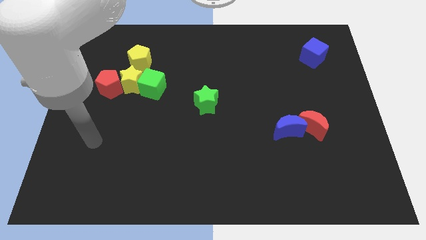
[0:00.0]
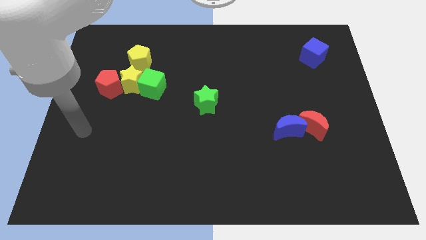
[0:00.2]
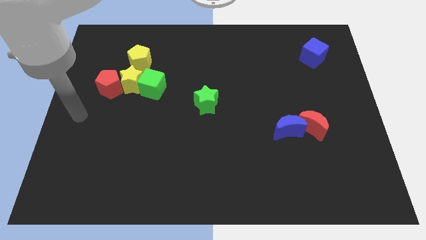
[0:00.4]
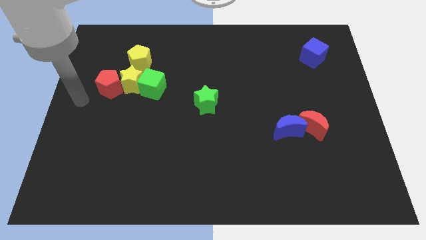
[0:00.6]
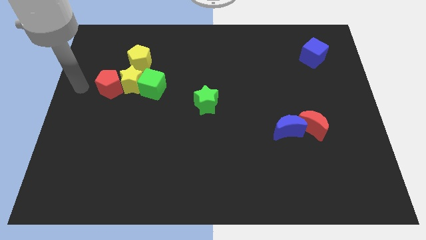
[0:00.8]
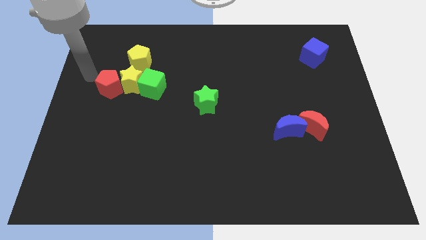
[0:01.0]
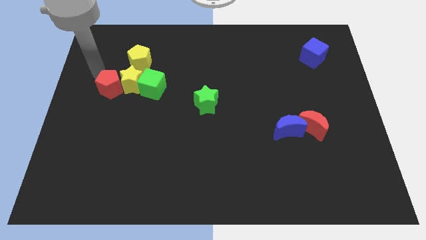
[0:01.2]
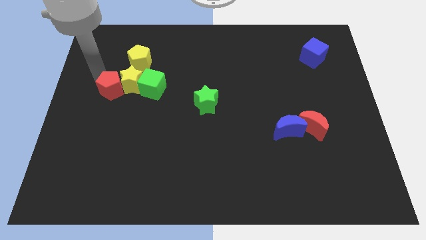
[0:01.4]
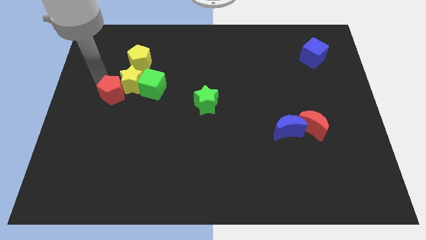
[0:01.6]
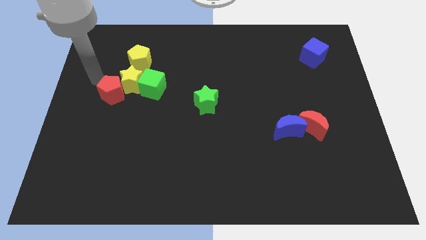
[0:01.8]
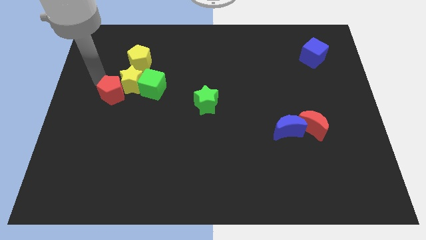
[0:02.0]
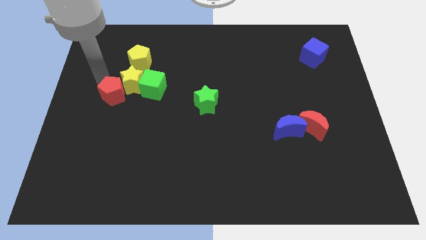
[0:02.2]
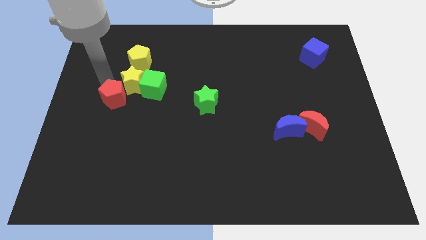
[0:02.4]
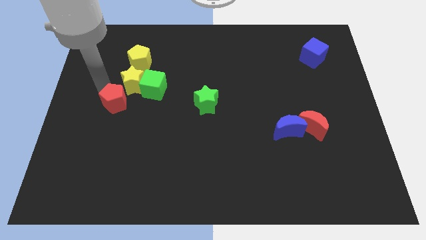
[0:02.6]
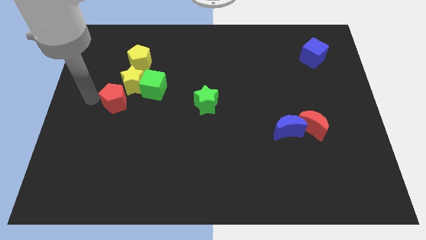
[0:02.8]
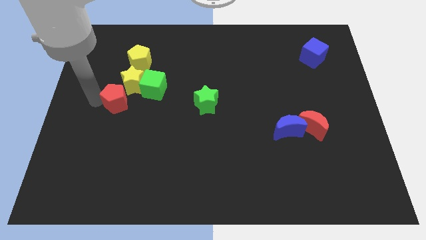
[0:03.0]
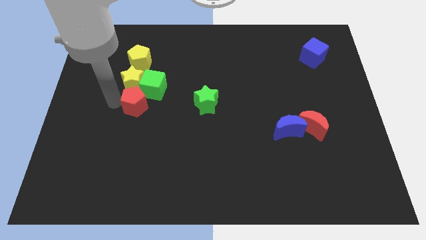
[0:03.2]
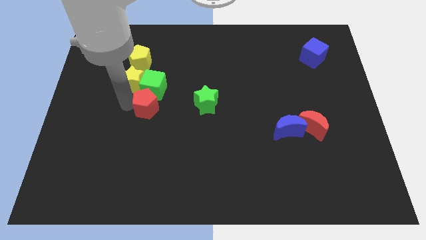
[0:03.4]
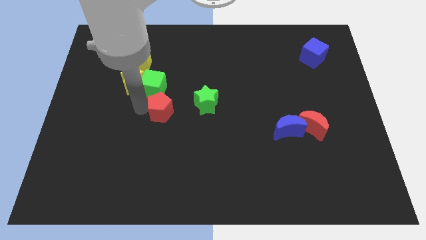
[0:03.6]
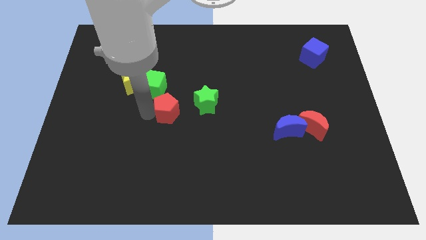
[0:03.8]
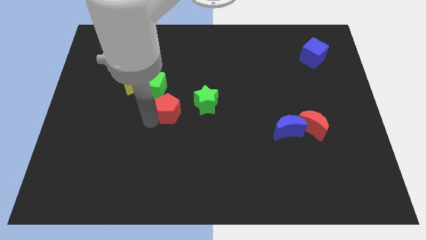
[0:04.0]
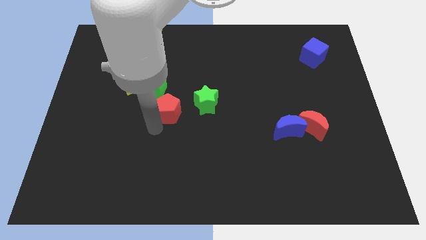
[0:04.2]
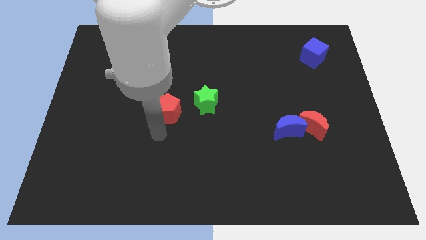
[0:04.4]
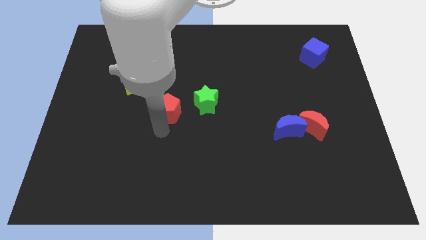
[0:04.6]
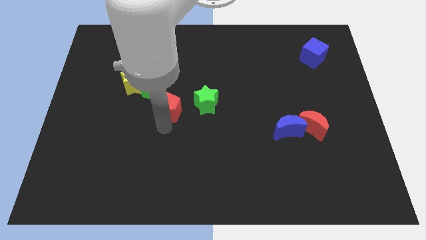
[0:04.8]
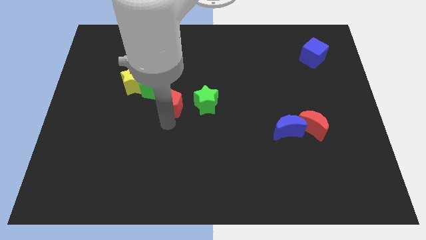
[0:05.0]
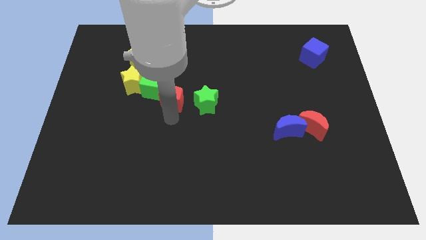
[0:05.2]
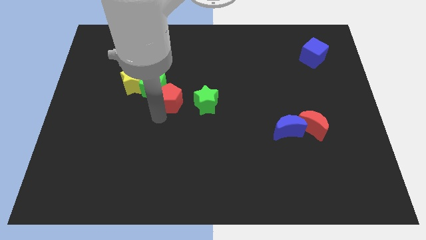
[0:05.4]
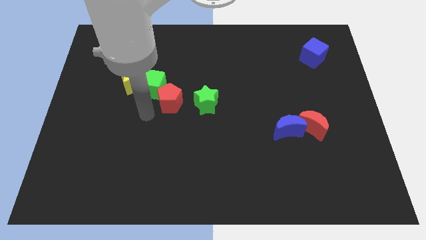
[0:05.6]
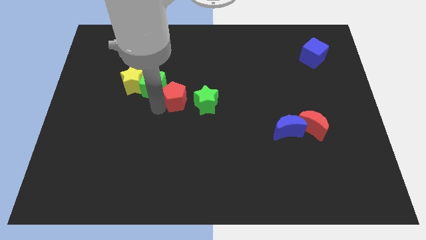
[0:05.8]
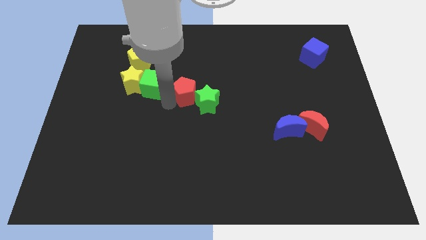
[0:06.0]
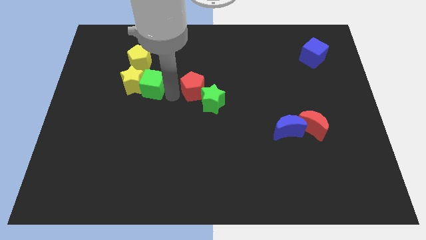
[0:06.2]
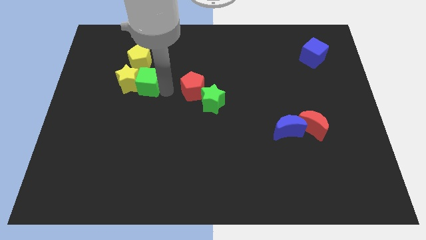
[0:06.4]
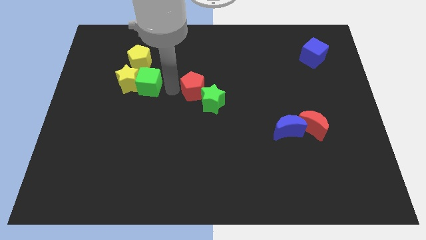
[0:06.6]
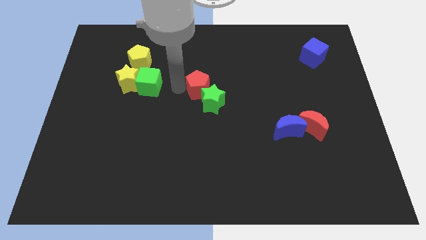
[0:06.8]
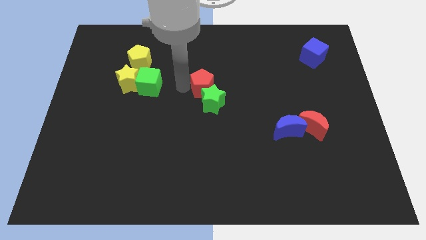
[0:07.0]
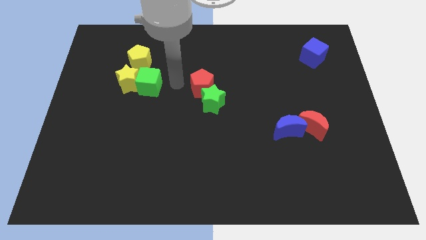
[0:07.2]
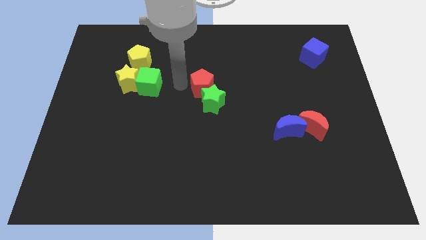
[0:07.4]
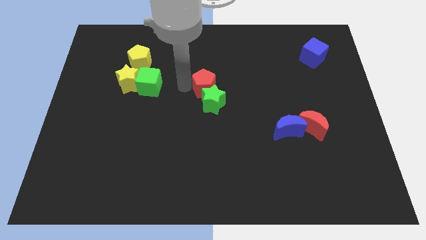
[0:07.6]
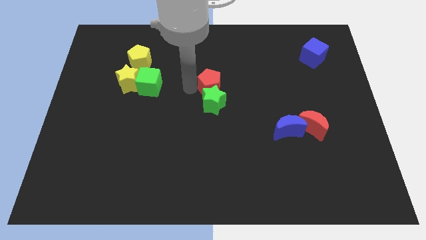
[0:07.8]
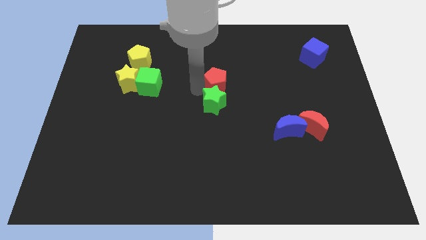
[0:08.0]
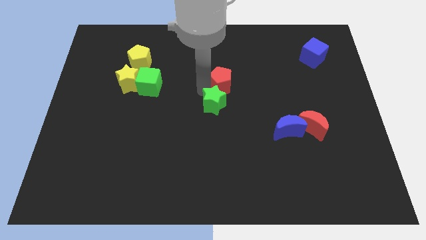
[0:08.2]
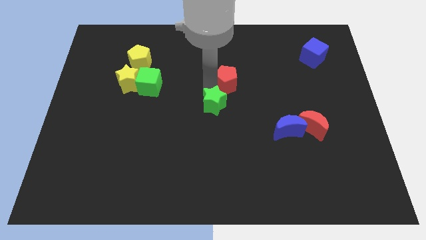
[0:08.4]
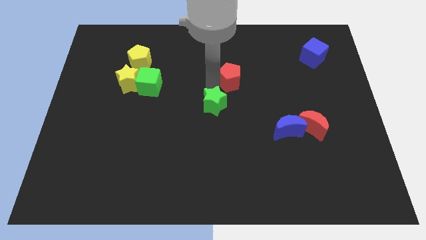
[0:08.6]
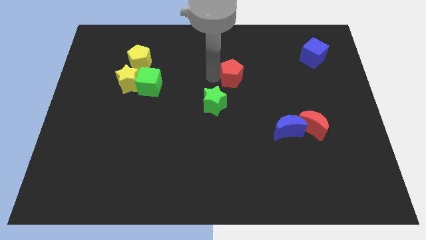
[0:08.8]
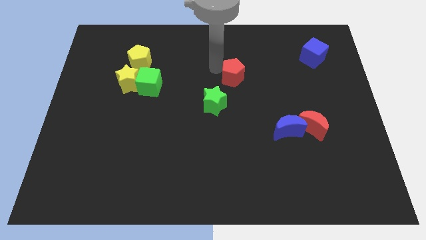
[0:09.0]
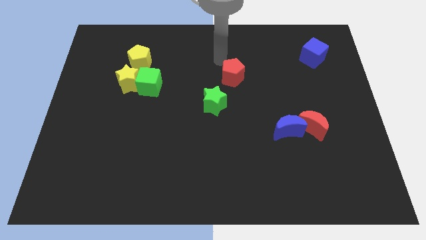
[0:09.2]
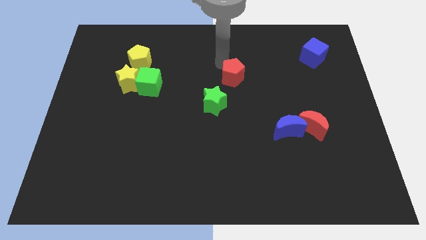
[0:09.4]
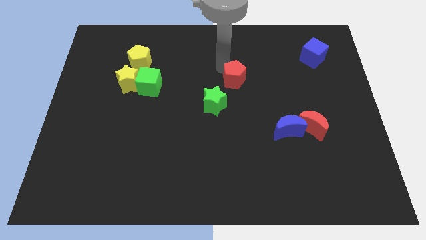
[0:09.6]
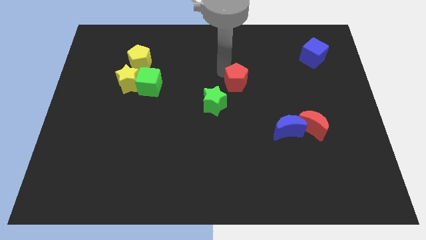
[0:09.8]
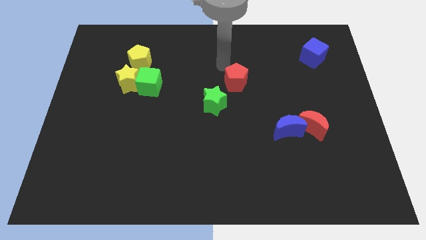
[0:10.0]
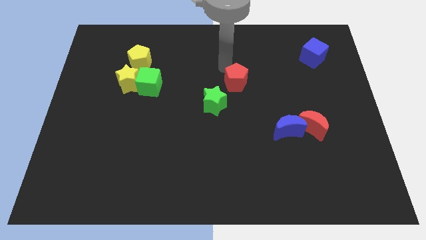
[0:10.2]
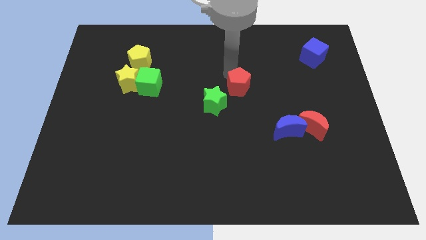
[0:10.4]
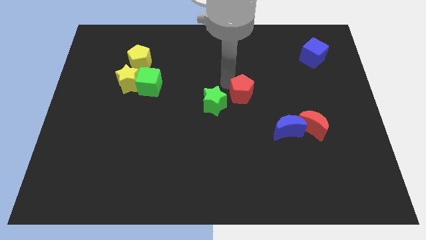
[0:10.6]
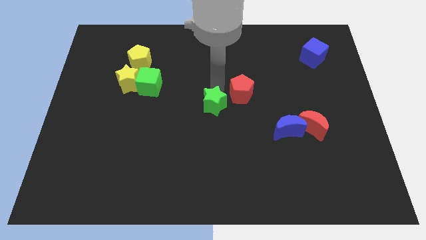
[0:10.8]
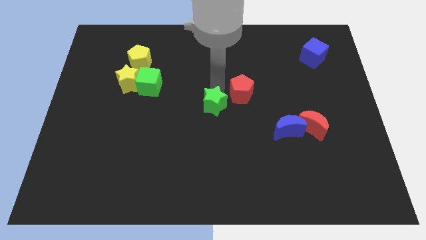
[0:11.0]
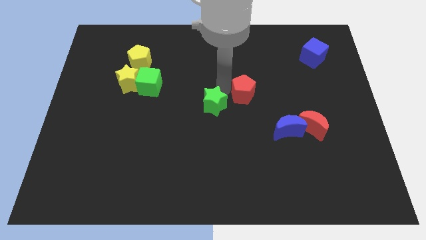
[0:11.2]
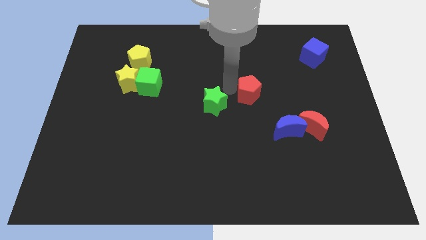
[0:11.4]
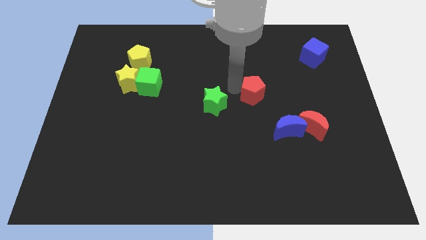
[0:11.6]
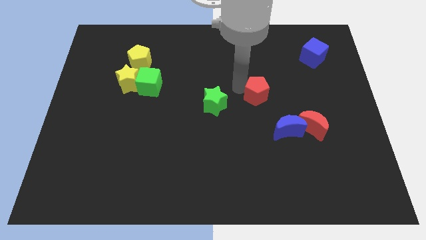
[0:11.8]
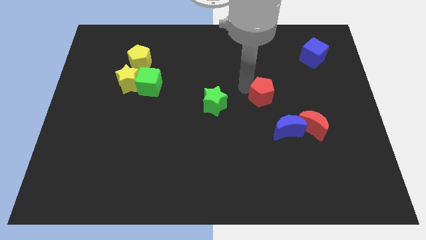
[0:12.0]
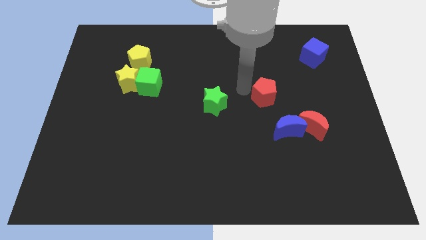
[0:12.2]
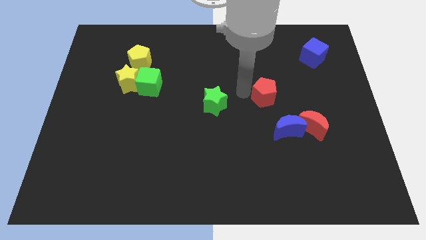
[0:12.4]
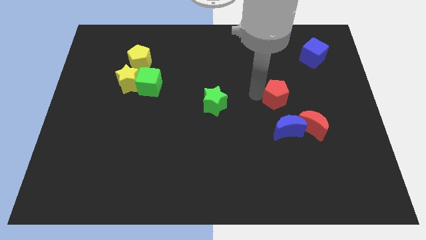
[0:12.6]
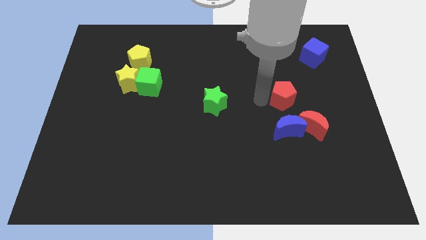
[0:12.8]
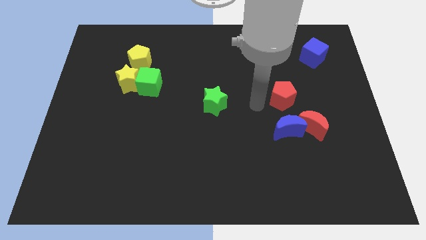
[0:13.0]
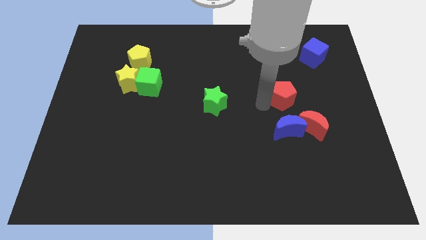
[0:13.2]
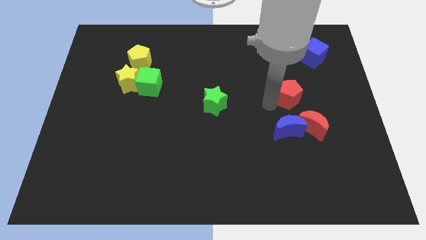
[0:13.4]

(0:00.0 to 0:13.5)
put the red pentagon to the top side of the red moon

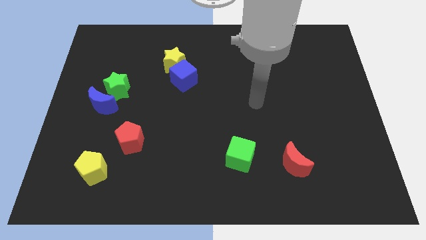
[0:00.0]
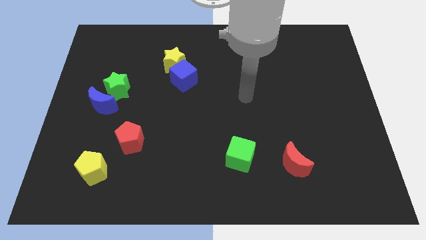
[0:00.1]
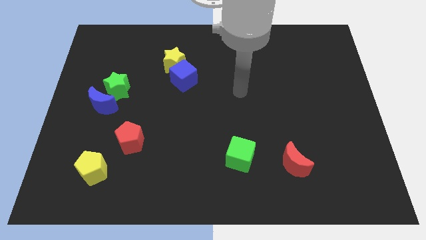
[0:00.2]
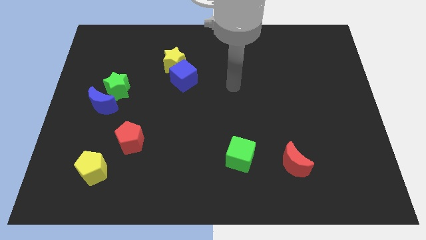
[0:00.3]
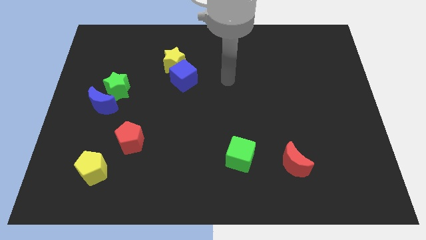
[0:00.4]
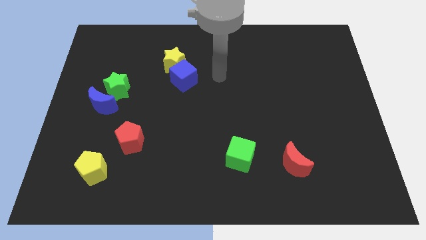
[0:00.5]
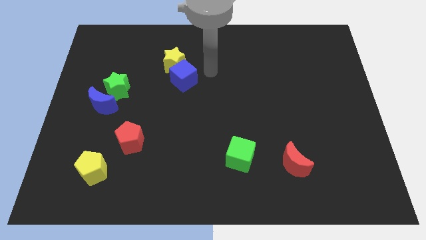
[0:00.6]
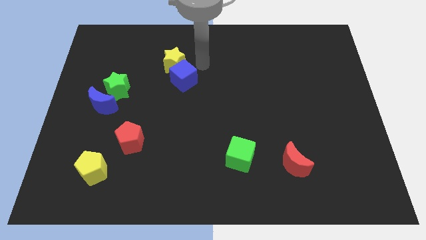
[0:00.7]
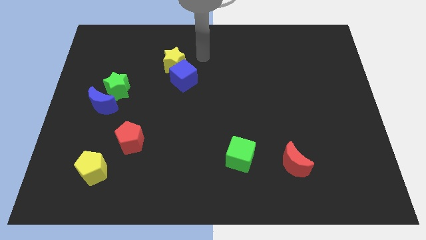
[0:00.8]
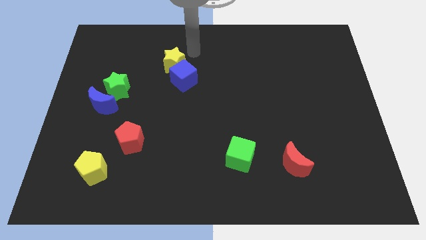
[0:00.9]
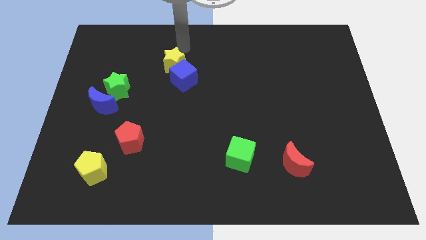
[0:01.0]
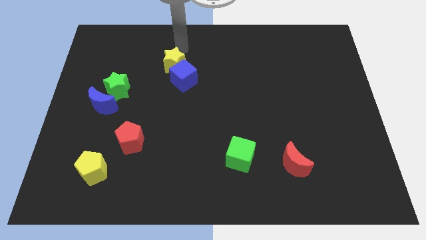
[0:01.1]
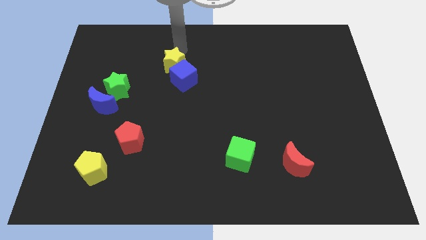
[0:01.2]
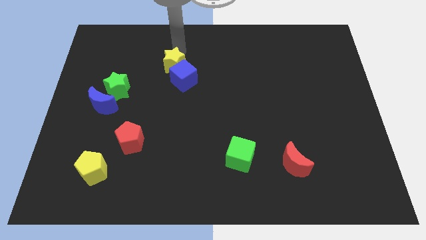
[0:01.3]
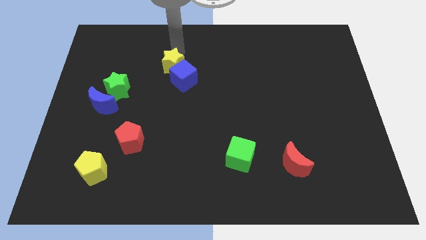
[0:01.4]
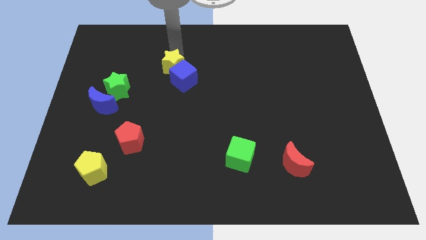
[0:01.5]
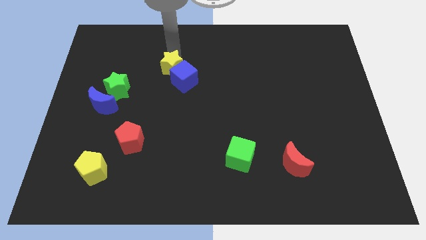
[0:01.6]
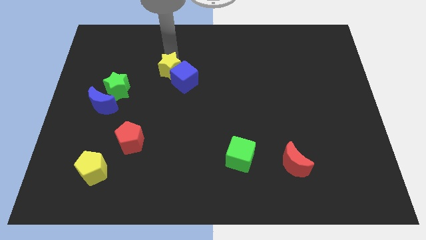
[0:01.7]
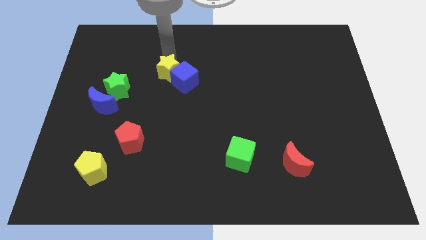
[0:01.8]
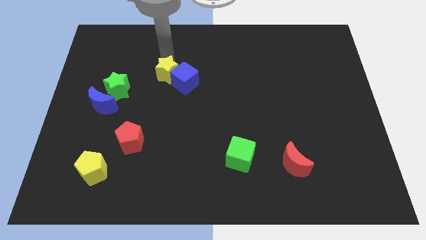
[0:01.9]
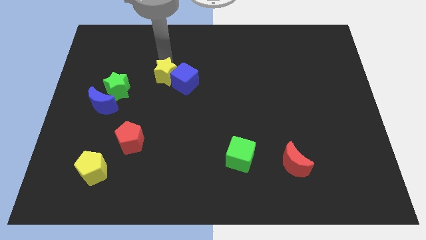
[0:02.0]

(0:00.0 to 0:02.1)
slide the yellow star right of the green star
